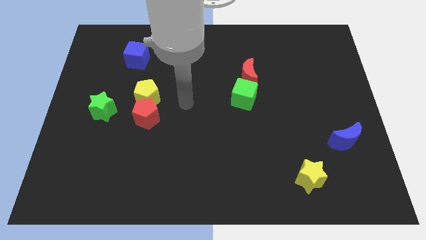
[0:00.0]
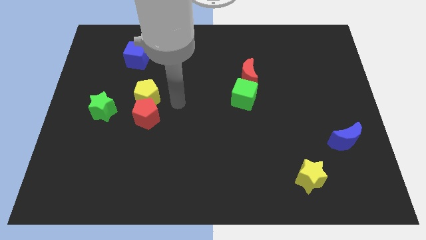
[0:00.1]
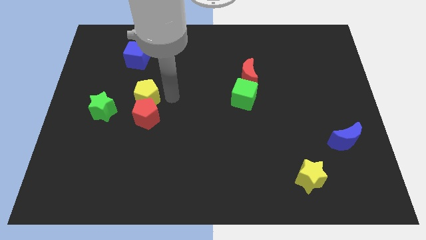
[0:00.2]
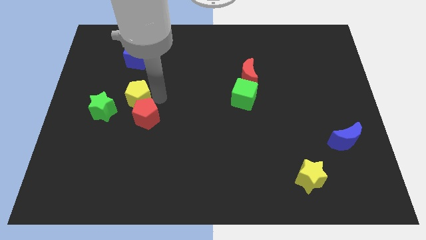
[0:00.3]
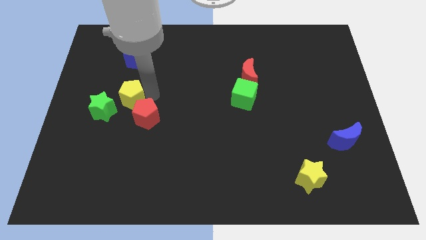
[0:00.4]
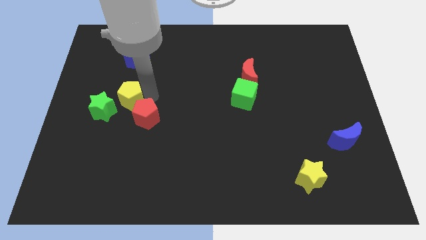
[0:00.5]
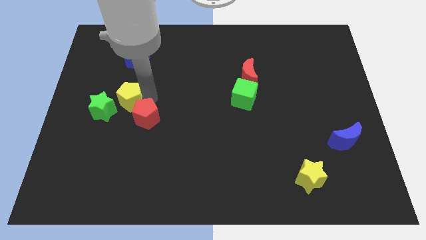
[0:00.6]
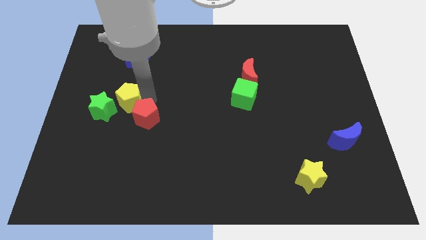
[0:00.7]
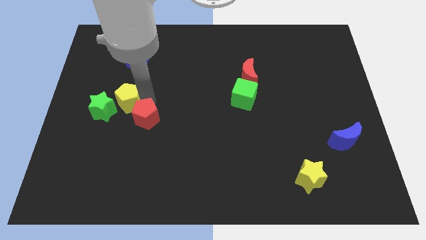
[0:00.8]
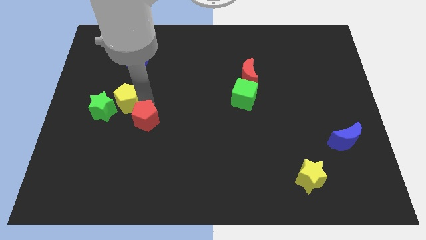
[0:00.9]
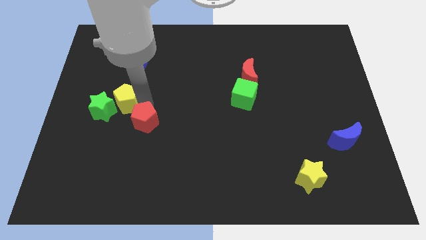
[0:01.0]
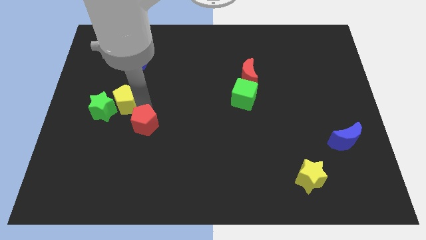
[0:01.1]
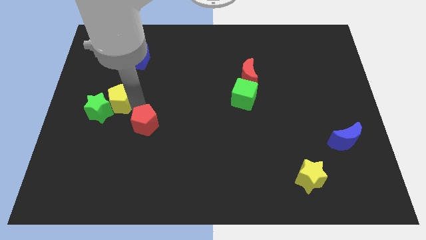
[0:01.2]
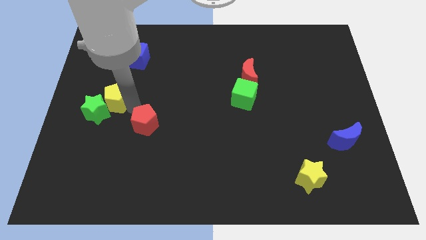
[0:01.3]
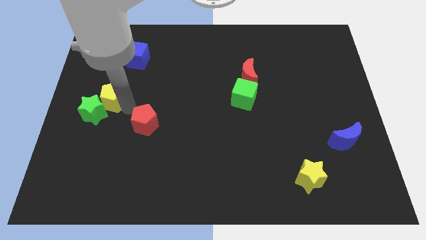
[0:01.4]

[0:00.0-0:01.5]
move the red pentagon away from the yellow pentagon

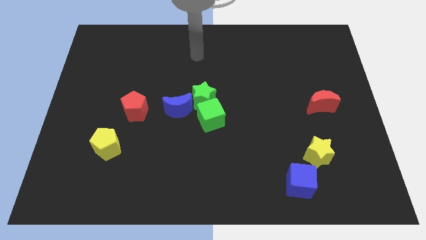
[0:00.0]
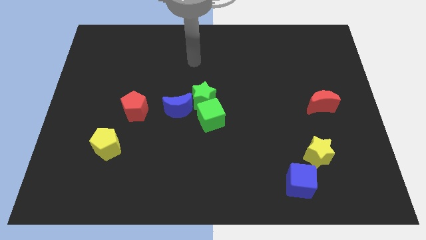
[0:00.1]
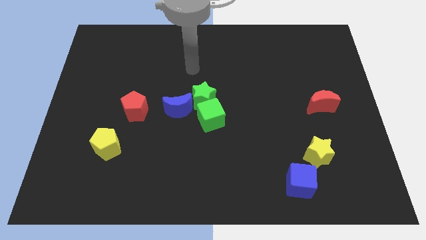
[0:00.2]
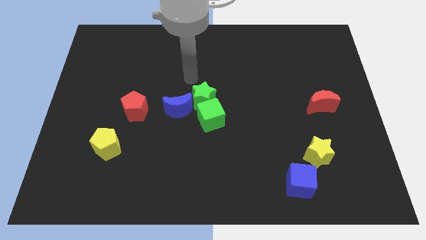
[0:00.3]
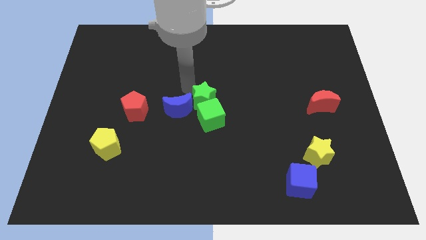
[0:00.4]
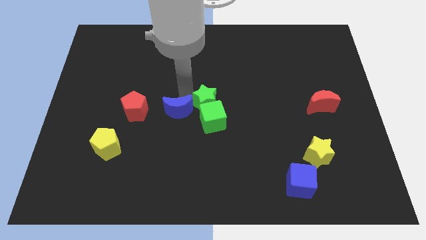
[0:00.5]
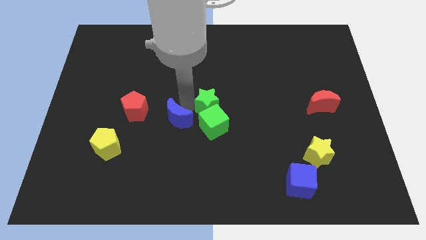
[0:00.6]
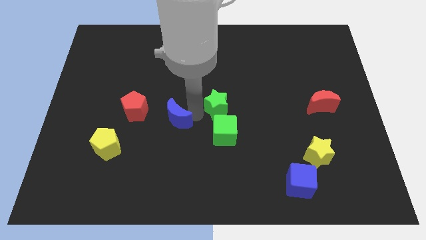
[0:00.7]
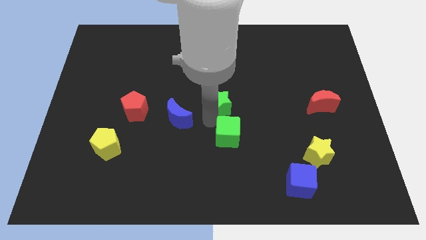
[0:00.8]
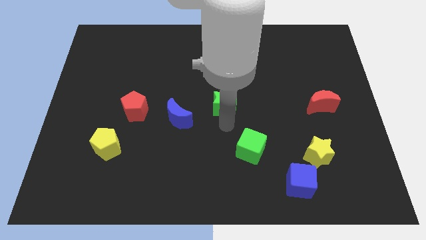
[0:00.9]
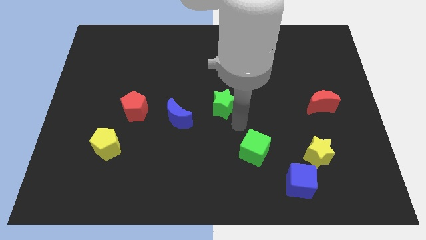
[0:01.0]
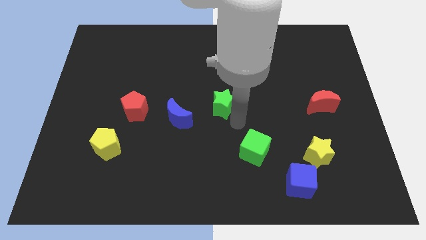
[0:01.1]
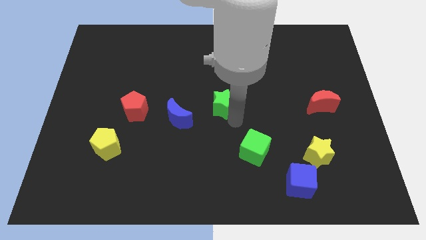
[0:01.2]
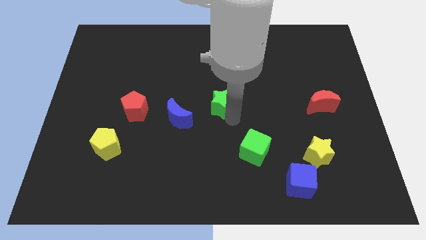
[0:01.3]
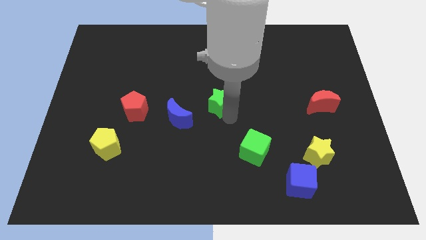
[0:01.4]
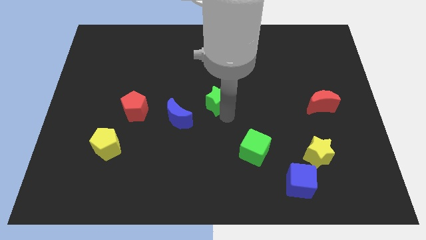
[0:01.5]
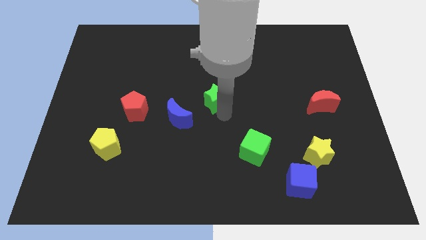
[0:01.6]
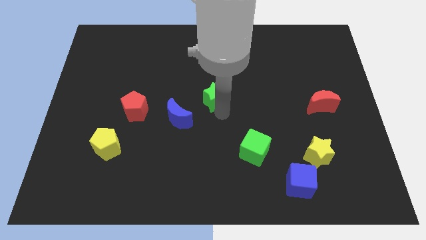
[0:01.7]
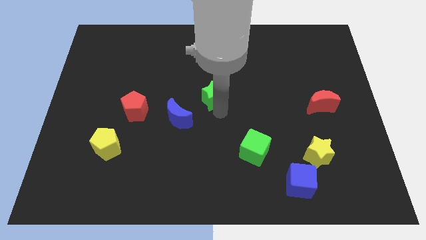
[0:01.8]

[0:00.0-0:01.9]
move the green star away from the green cube and blue moon

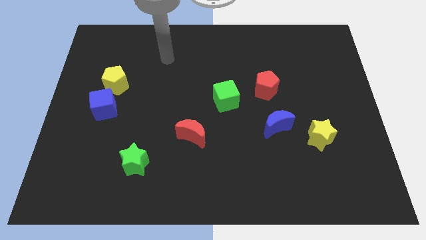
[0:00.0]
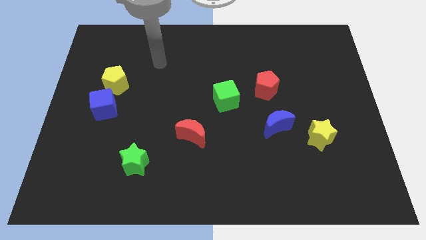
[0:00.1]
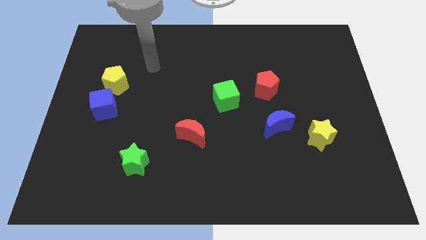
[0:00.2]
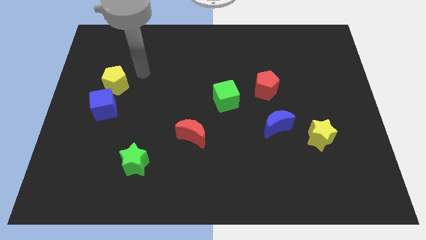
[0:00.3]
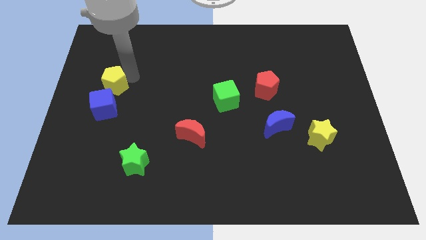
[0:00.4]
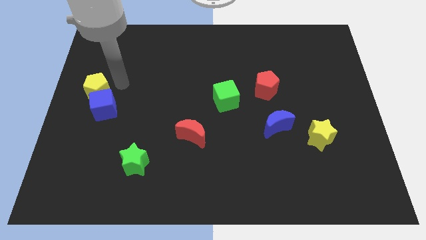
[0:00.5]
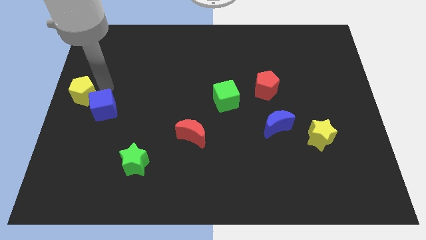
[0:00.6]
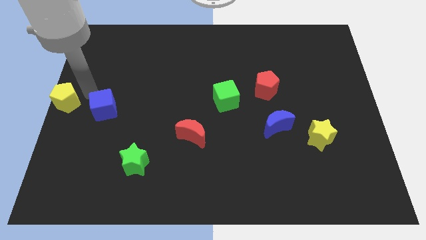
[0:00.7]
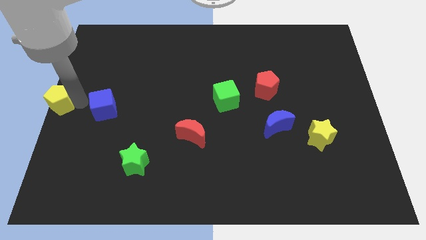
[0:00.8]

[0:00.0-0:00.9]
move the blue cube away from the yellow pentagon

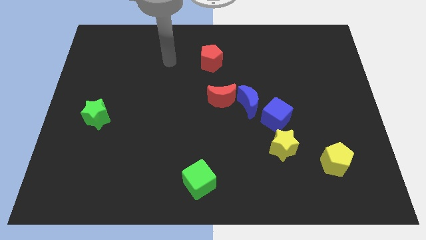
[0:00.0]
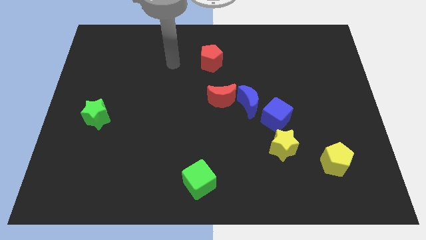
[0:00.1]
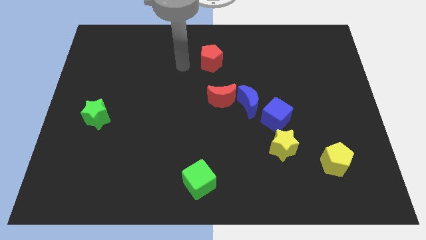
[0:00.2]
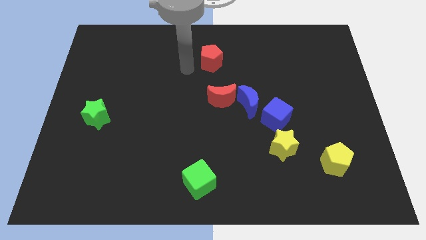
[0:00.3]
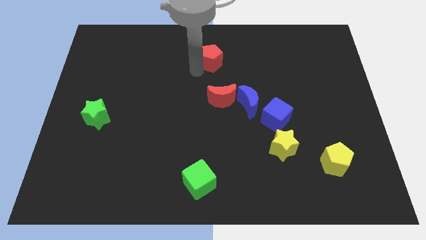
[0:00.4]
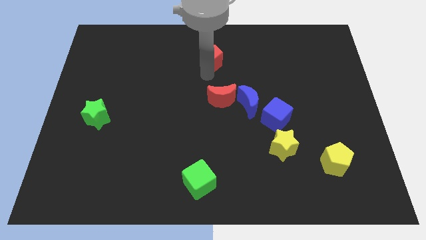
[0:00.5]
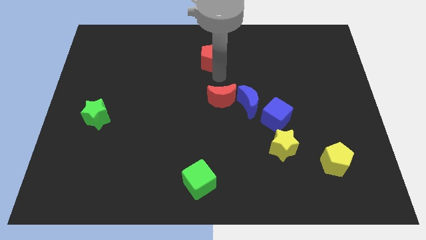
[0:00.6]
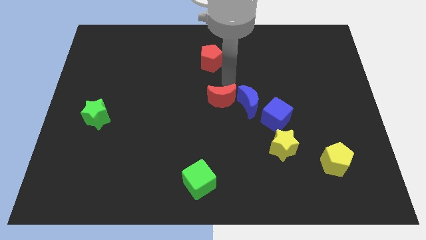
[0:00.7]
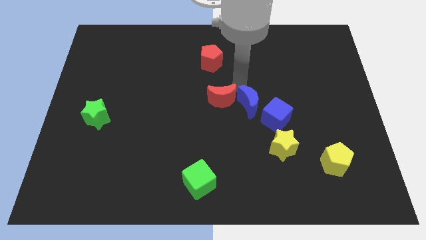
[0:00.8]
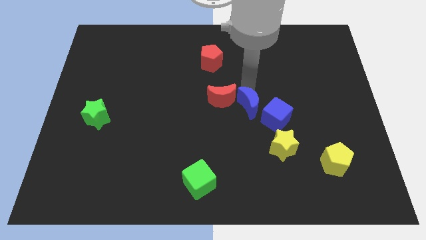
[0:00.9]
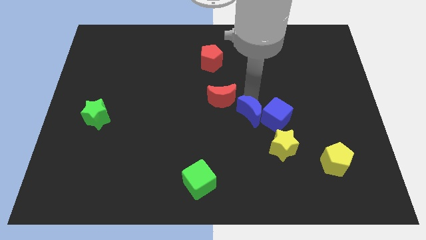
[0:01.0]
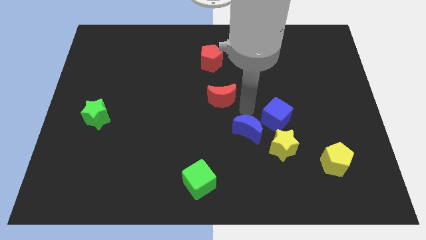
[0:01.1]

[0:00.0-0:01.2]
move the red moon away from the blue moon

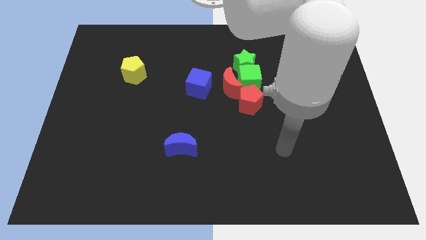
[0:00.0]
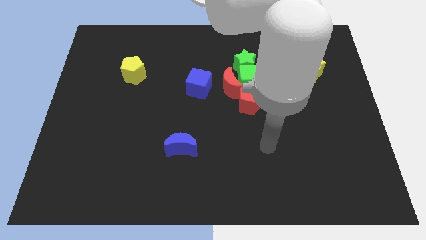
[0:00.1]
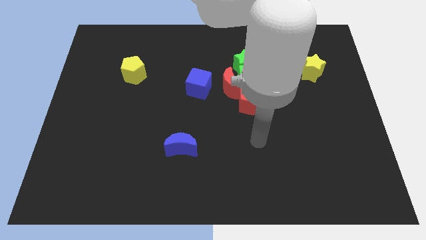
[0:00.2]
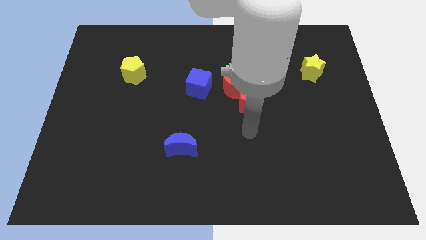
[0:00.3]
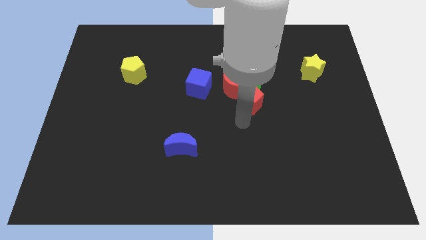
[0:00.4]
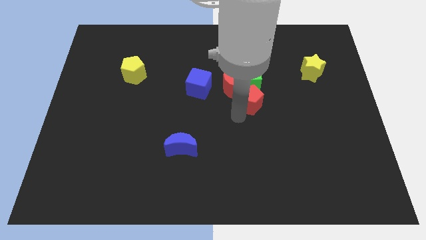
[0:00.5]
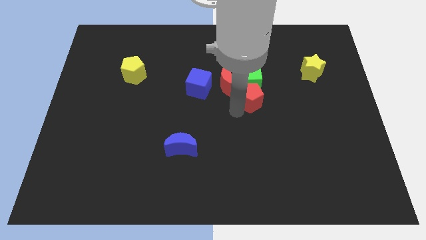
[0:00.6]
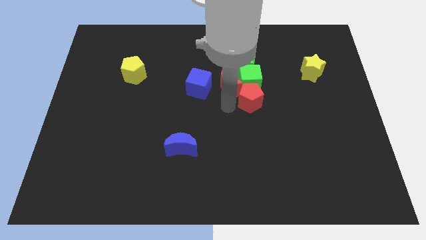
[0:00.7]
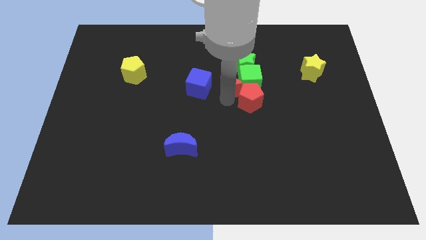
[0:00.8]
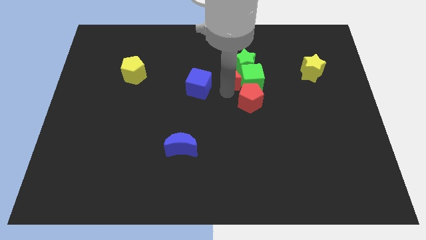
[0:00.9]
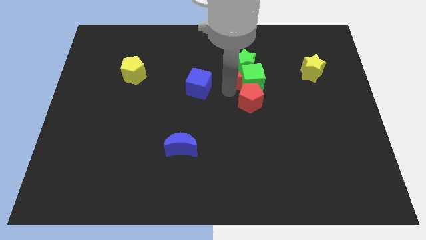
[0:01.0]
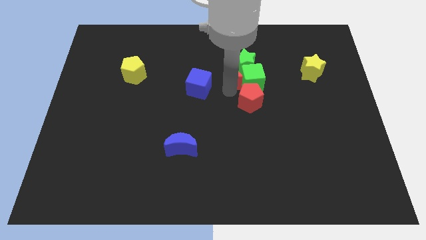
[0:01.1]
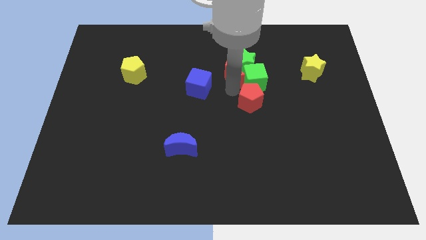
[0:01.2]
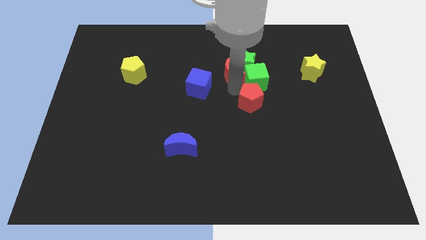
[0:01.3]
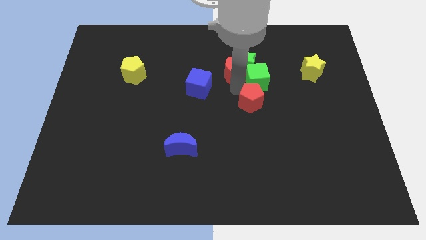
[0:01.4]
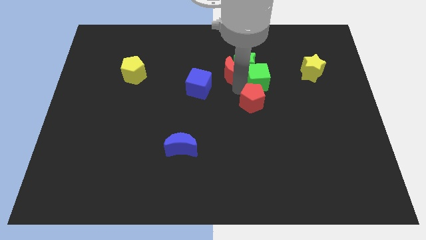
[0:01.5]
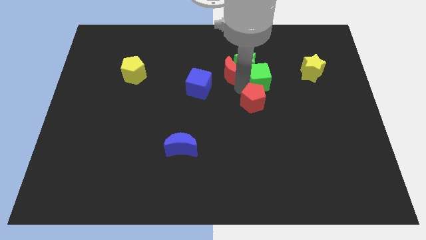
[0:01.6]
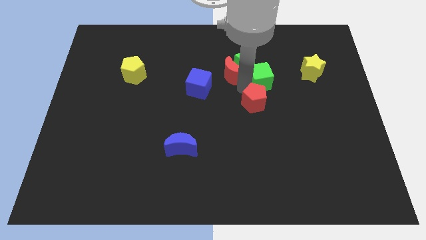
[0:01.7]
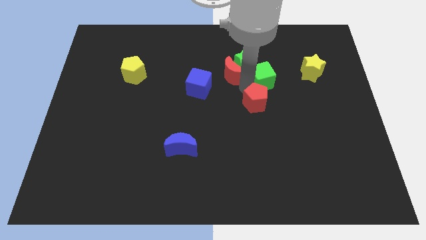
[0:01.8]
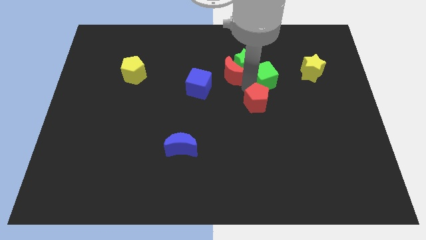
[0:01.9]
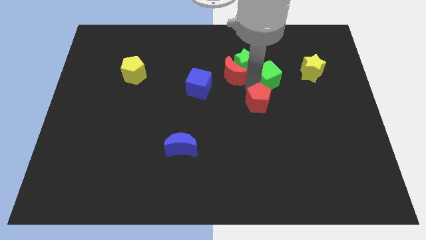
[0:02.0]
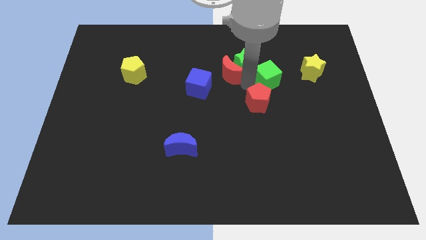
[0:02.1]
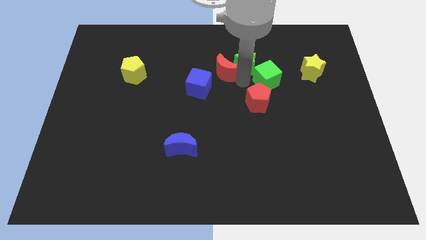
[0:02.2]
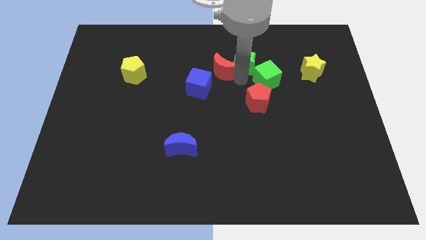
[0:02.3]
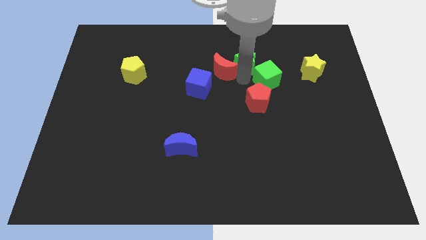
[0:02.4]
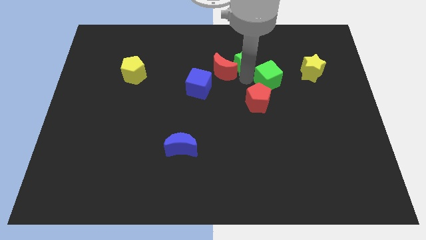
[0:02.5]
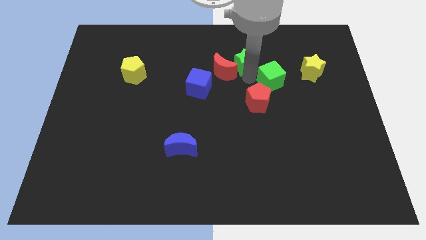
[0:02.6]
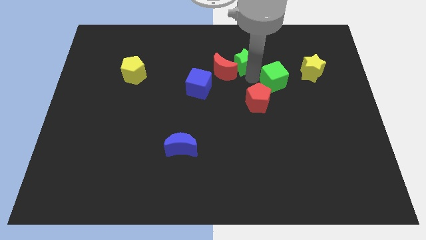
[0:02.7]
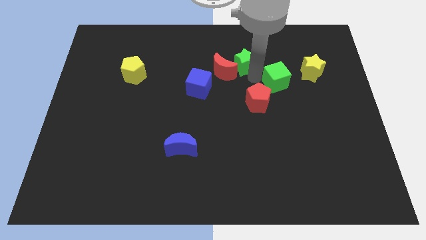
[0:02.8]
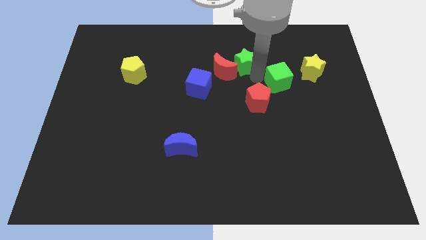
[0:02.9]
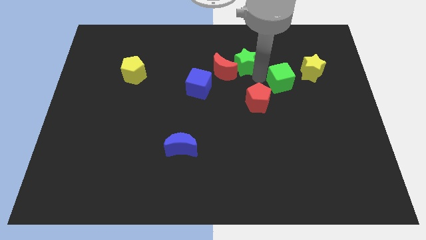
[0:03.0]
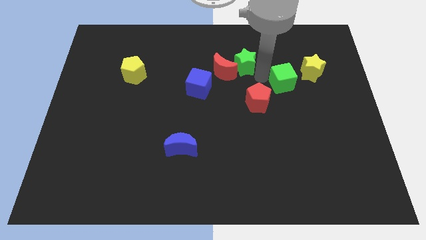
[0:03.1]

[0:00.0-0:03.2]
separate the green cube from the red moon, green star, and red pentagon

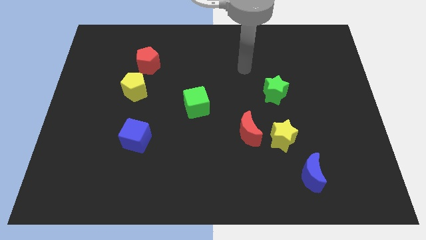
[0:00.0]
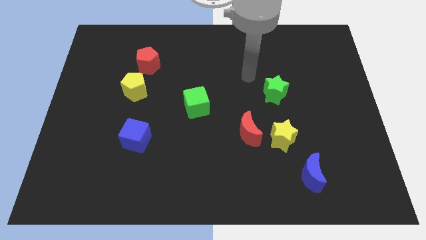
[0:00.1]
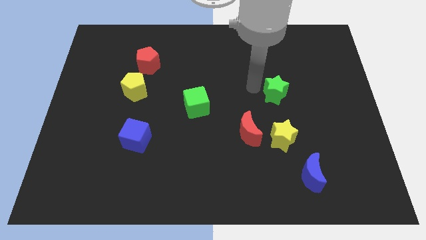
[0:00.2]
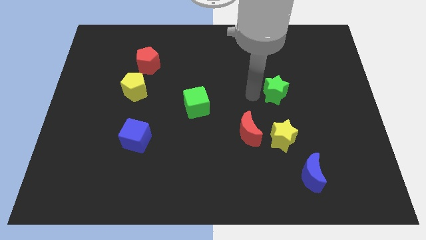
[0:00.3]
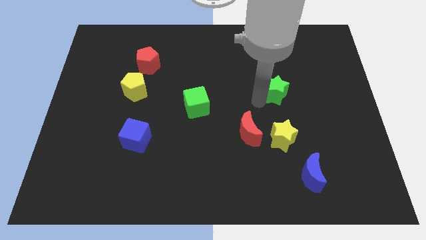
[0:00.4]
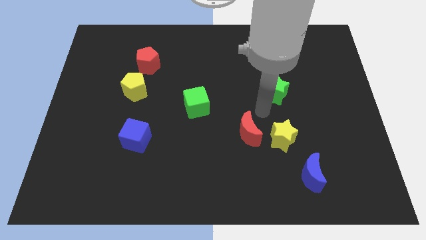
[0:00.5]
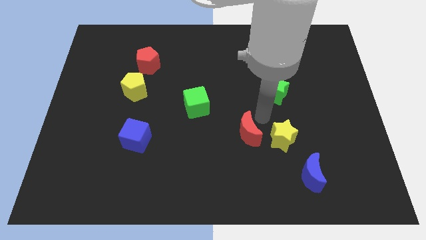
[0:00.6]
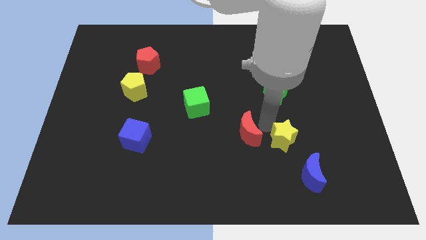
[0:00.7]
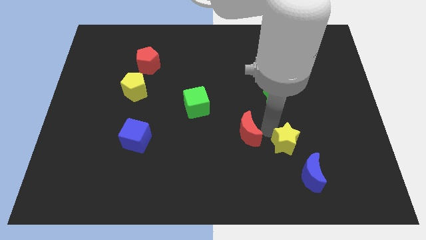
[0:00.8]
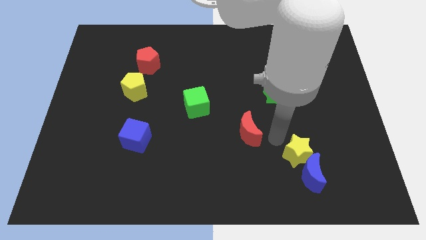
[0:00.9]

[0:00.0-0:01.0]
separate the red moon from the yellow star
